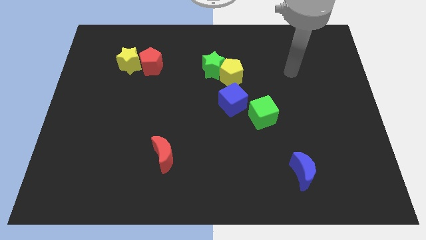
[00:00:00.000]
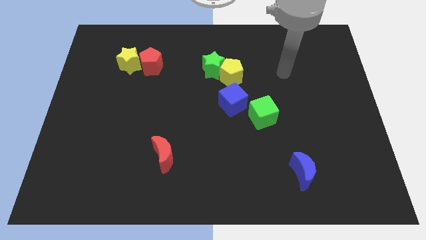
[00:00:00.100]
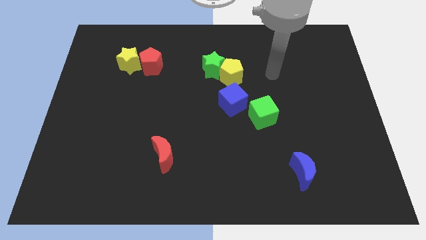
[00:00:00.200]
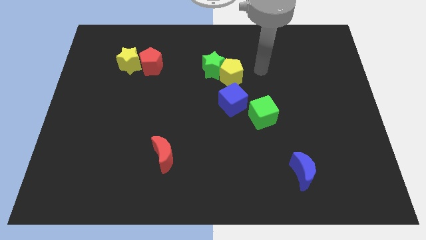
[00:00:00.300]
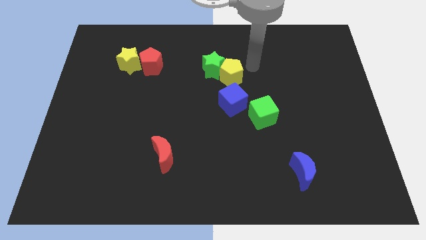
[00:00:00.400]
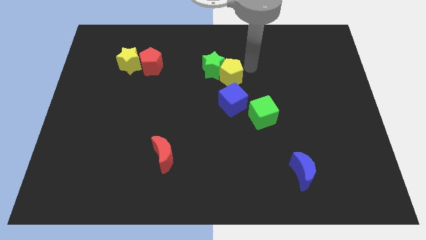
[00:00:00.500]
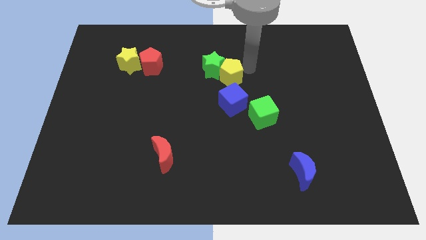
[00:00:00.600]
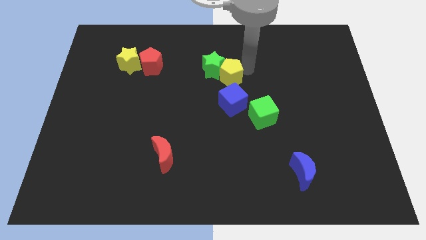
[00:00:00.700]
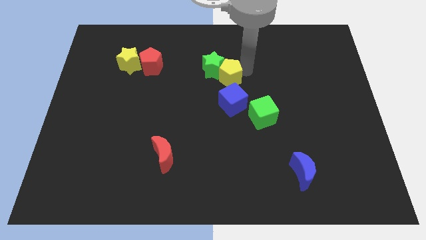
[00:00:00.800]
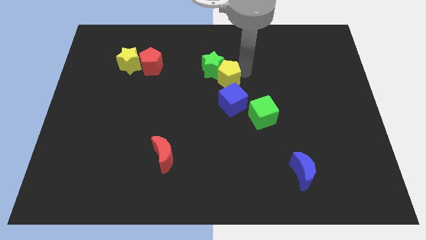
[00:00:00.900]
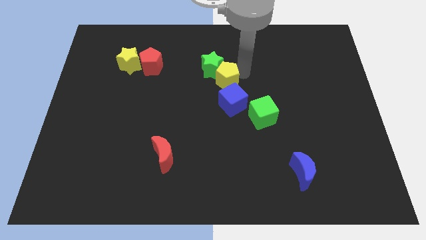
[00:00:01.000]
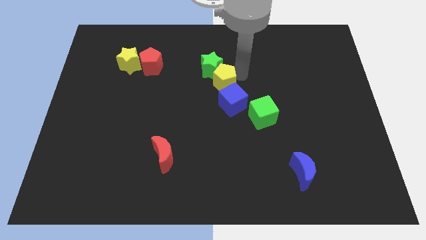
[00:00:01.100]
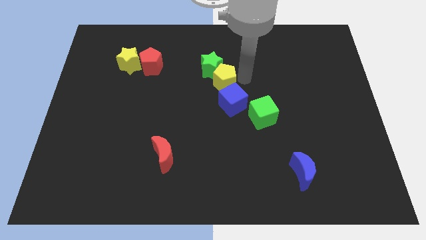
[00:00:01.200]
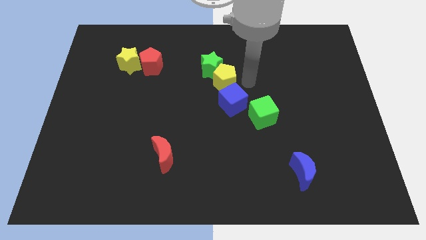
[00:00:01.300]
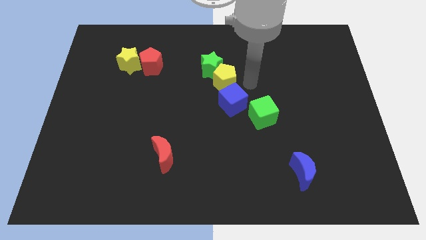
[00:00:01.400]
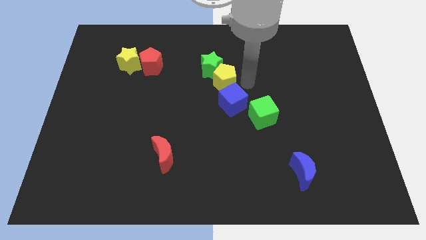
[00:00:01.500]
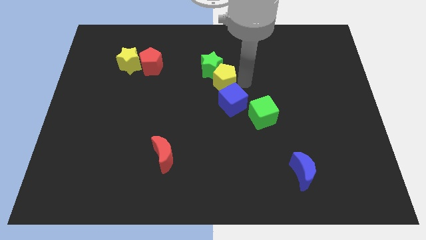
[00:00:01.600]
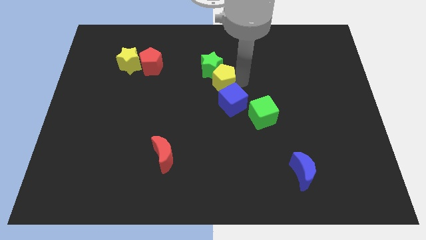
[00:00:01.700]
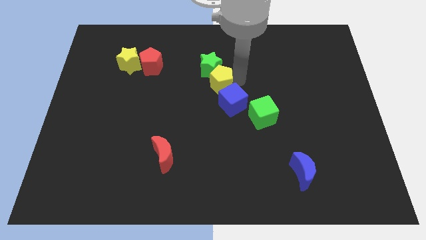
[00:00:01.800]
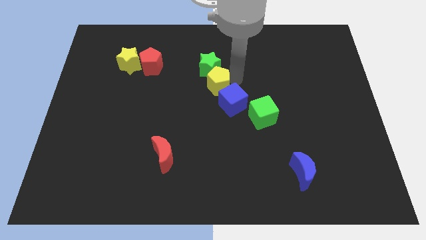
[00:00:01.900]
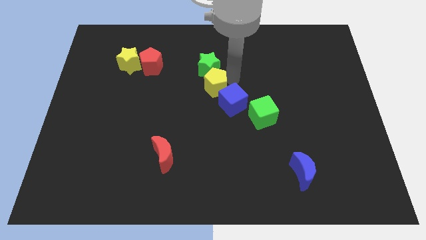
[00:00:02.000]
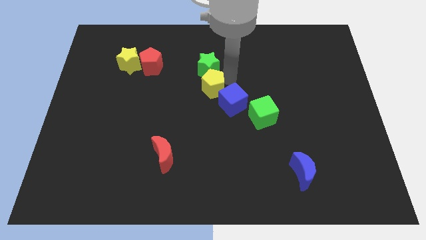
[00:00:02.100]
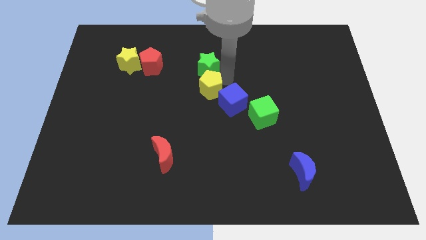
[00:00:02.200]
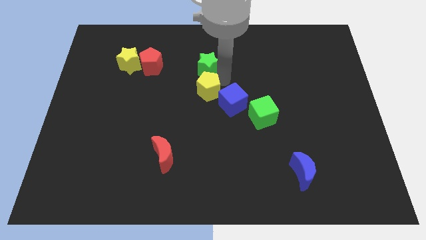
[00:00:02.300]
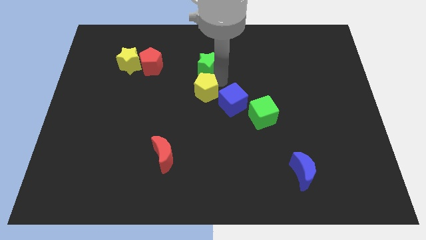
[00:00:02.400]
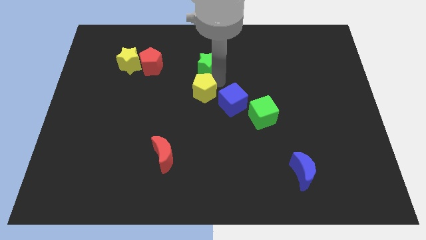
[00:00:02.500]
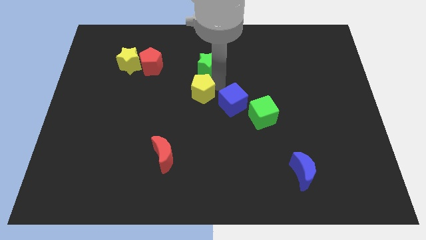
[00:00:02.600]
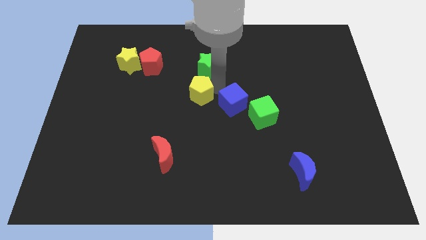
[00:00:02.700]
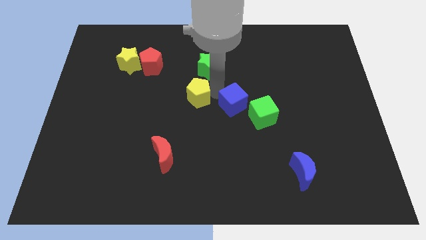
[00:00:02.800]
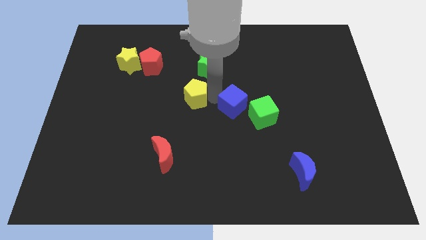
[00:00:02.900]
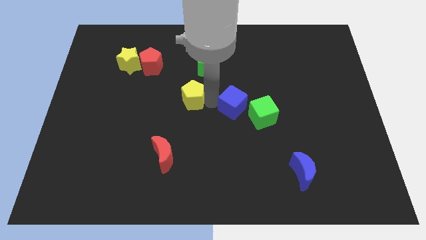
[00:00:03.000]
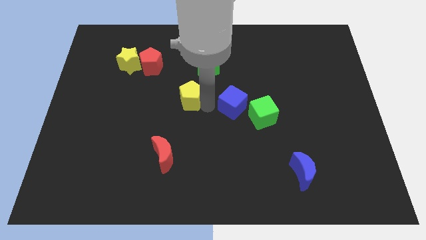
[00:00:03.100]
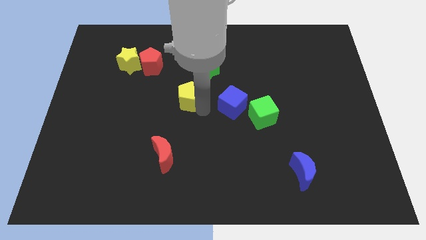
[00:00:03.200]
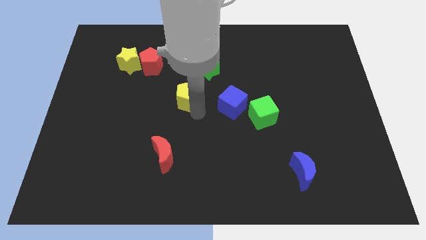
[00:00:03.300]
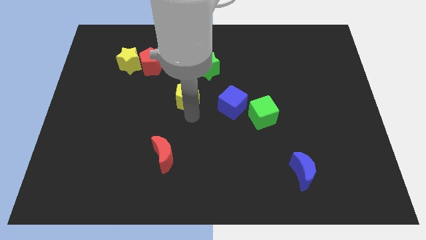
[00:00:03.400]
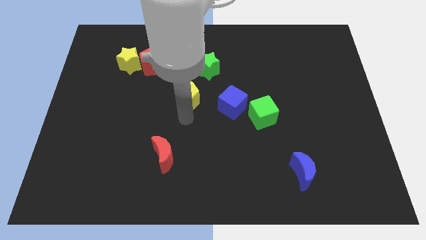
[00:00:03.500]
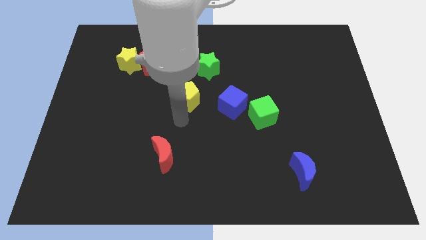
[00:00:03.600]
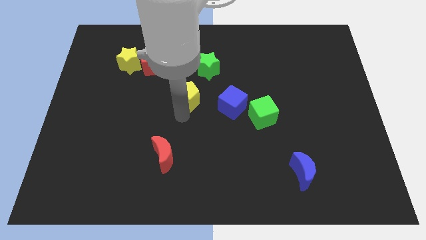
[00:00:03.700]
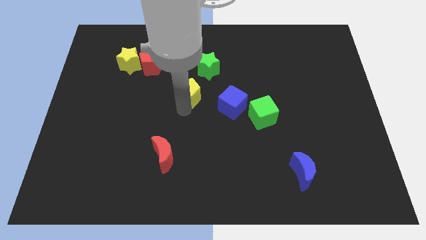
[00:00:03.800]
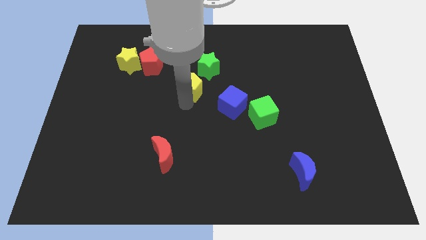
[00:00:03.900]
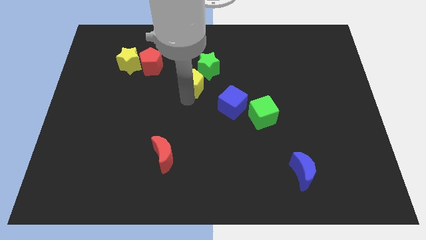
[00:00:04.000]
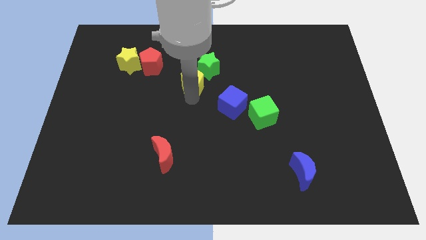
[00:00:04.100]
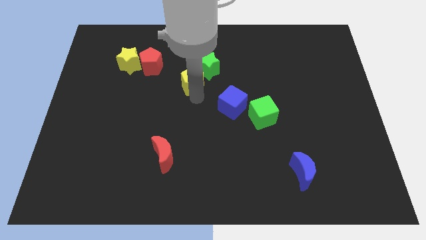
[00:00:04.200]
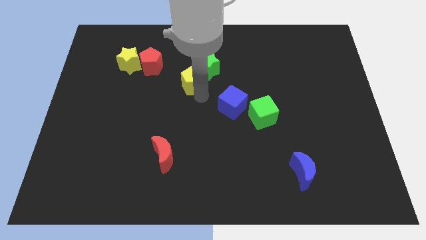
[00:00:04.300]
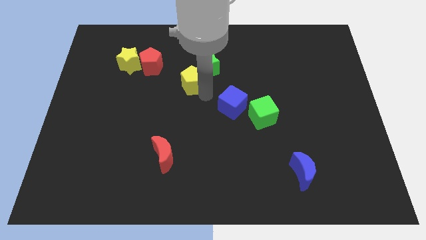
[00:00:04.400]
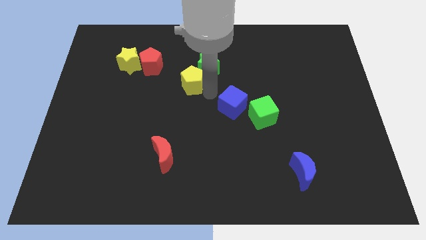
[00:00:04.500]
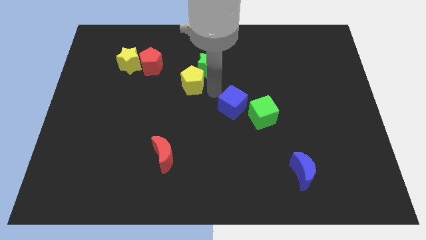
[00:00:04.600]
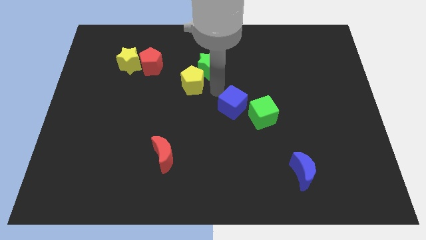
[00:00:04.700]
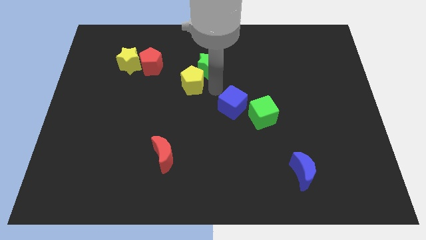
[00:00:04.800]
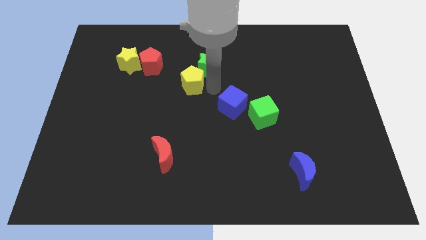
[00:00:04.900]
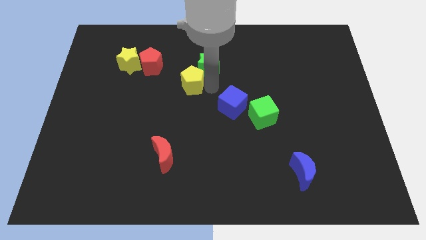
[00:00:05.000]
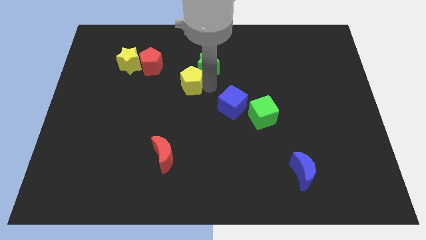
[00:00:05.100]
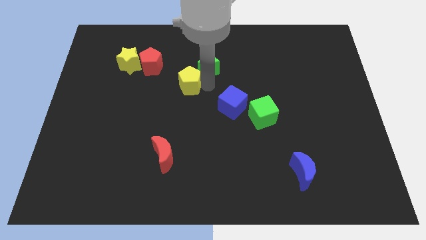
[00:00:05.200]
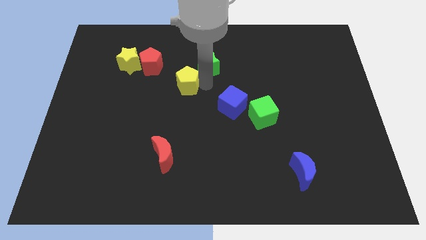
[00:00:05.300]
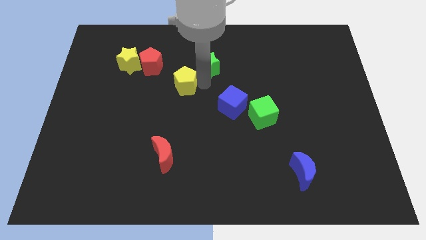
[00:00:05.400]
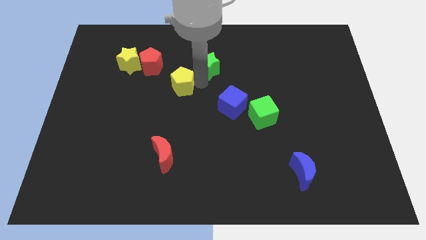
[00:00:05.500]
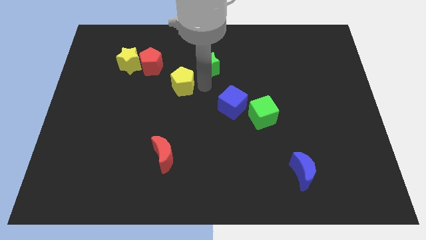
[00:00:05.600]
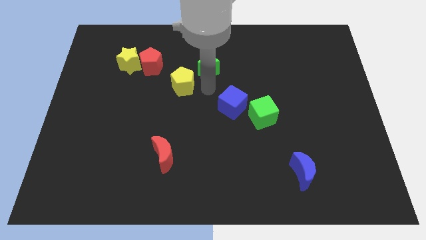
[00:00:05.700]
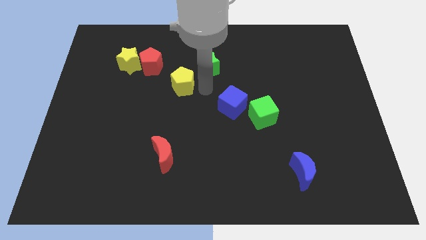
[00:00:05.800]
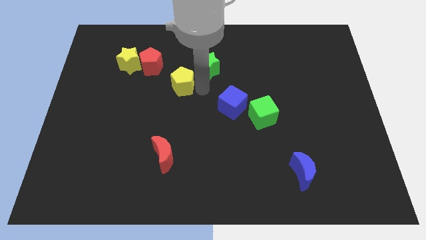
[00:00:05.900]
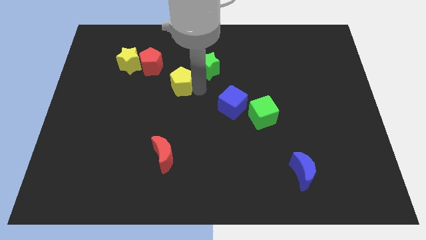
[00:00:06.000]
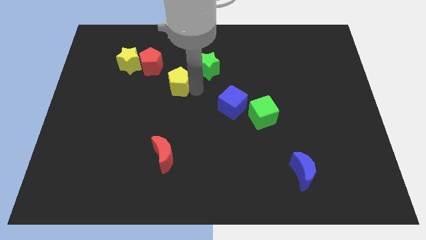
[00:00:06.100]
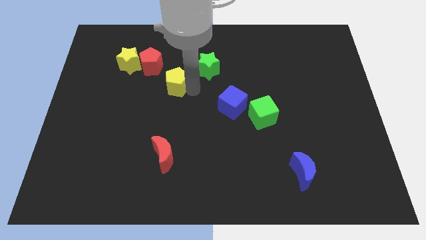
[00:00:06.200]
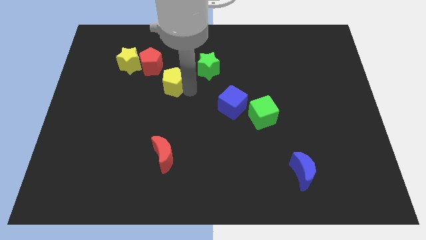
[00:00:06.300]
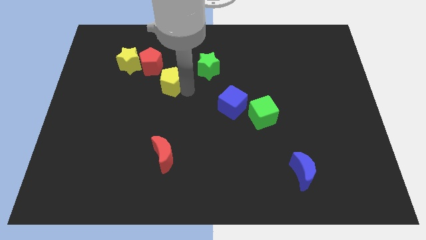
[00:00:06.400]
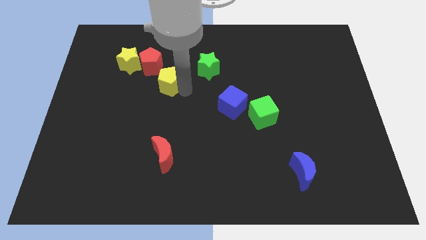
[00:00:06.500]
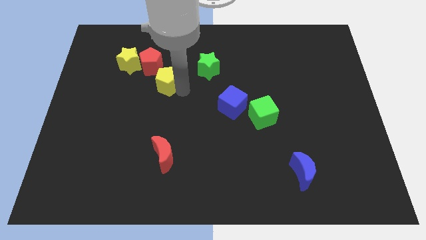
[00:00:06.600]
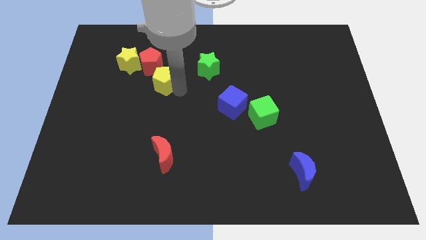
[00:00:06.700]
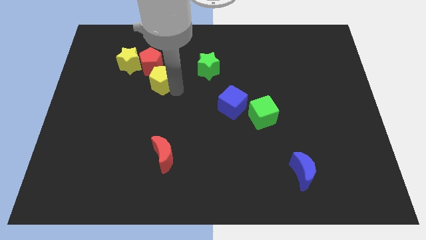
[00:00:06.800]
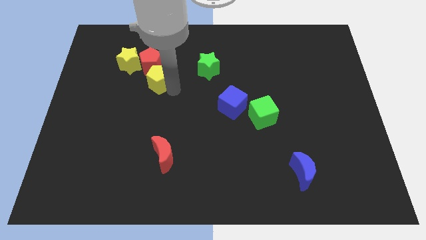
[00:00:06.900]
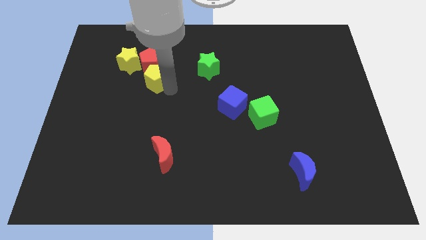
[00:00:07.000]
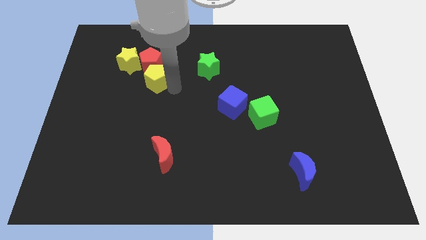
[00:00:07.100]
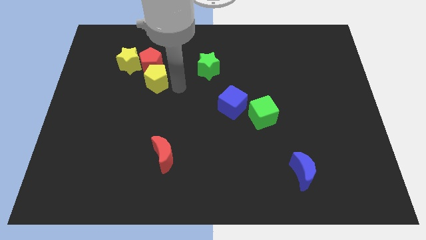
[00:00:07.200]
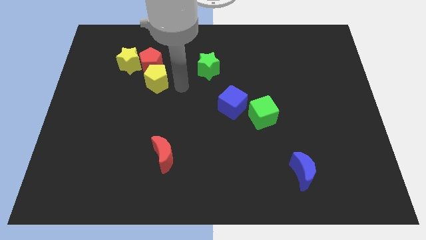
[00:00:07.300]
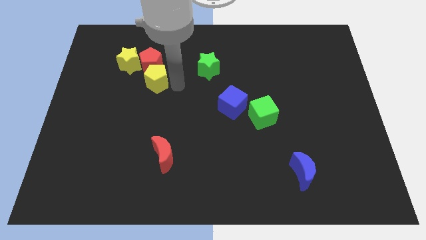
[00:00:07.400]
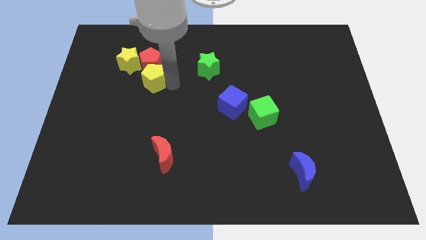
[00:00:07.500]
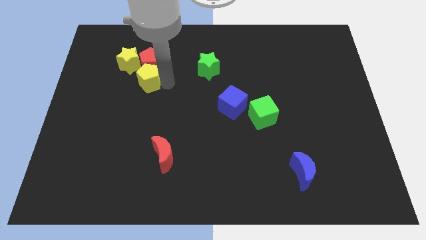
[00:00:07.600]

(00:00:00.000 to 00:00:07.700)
push the yellow pentagon to the left
